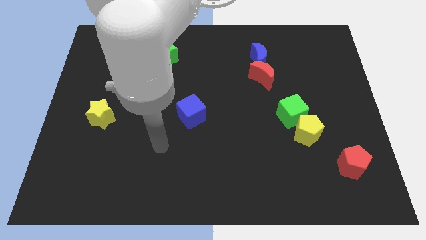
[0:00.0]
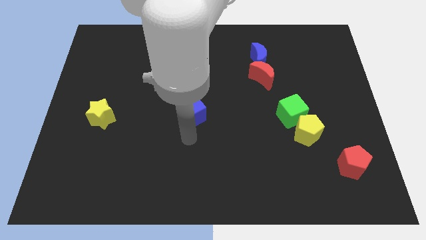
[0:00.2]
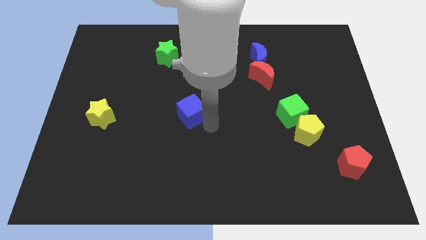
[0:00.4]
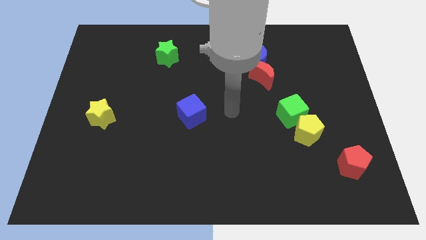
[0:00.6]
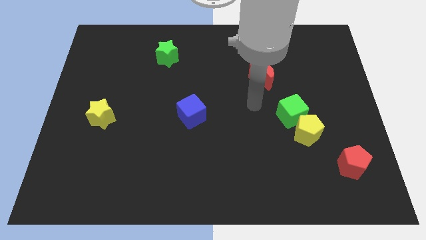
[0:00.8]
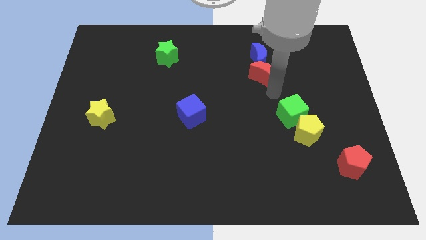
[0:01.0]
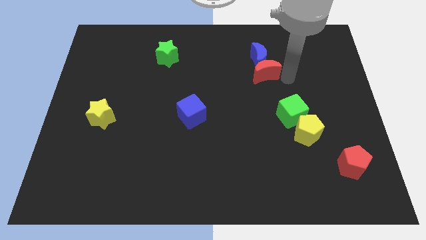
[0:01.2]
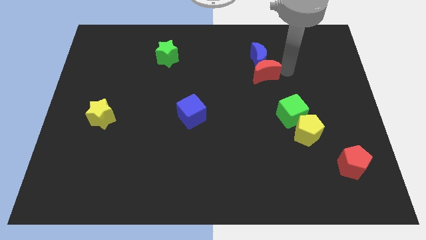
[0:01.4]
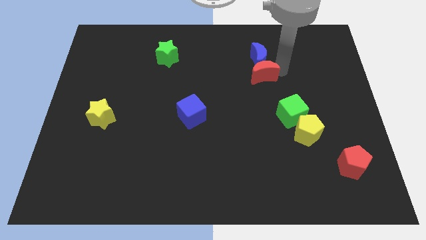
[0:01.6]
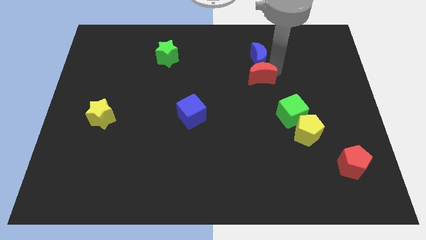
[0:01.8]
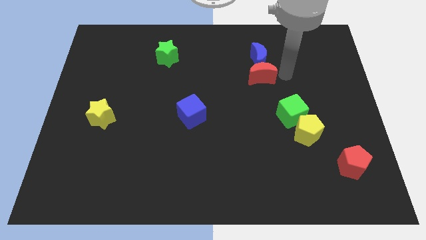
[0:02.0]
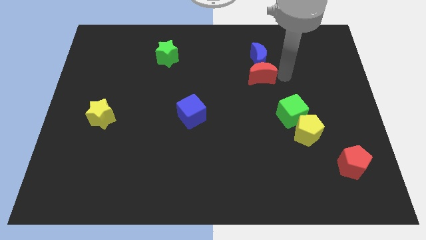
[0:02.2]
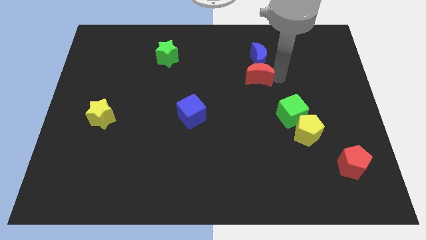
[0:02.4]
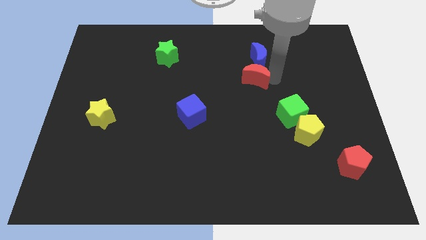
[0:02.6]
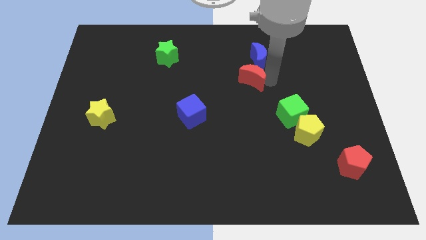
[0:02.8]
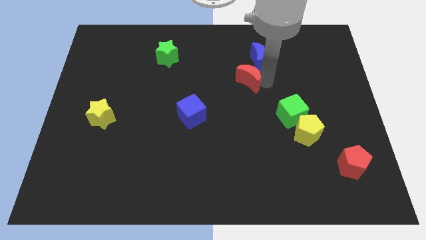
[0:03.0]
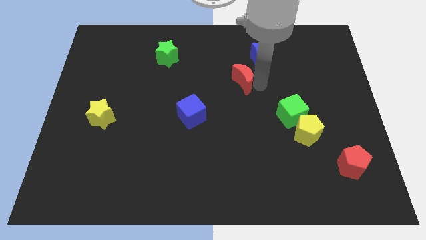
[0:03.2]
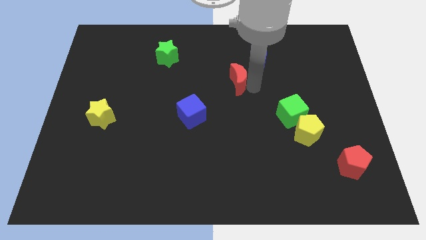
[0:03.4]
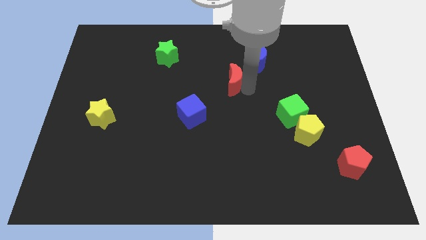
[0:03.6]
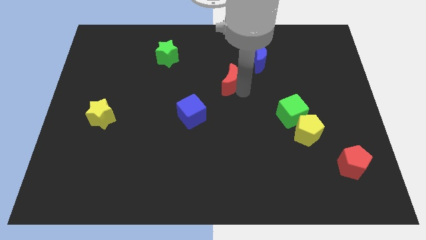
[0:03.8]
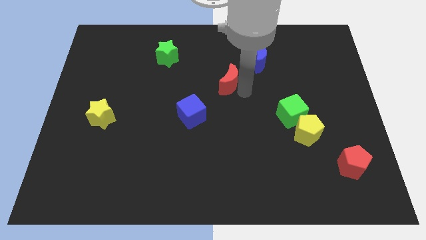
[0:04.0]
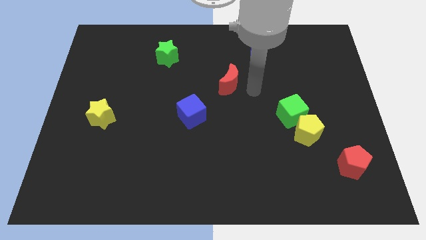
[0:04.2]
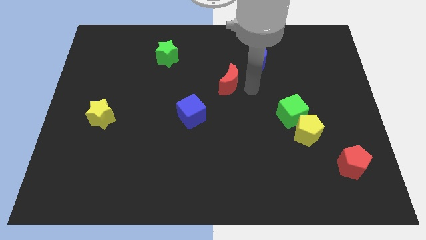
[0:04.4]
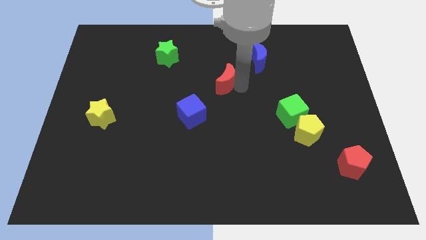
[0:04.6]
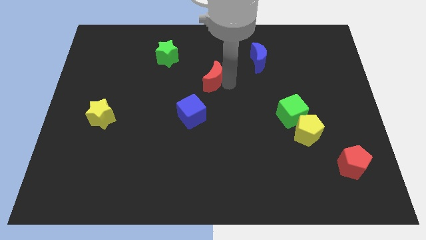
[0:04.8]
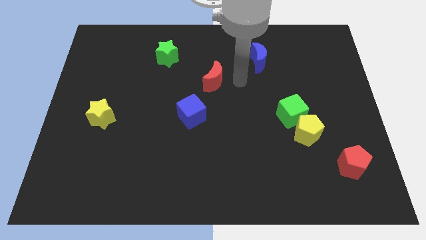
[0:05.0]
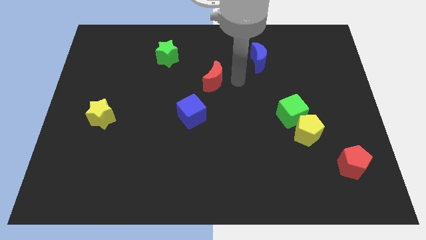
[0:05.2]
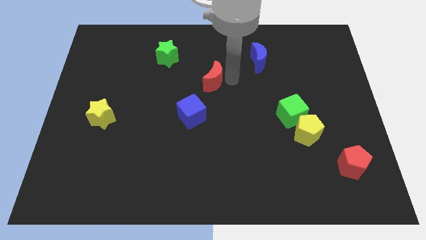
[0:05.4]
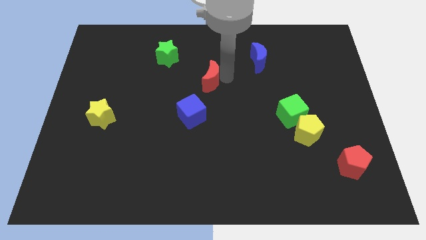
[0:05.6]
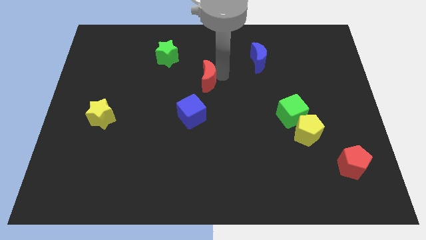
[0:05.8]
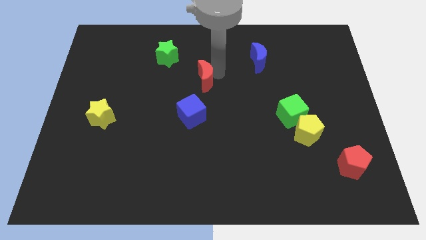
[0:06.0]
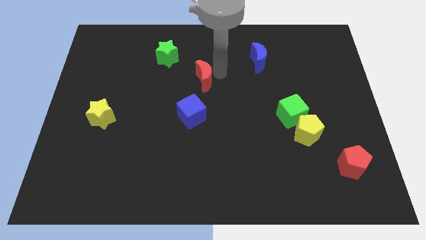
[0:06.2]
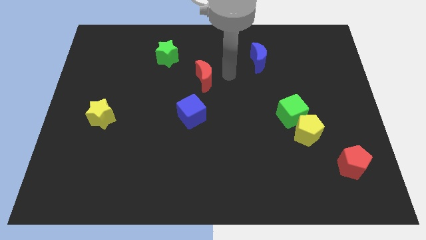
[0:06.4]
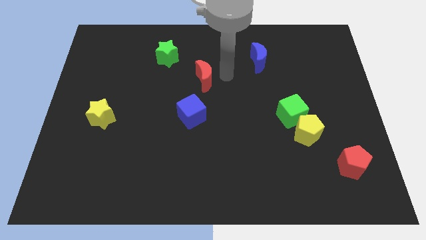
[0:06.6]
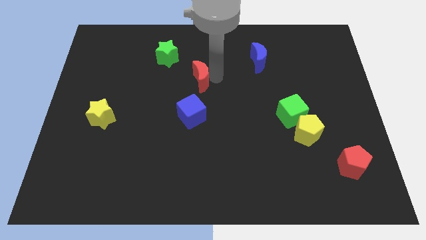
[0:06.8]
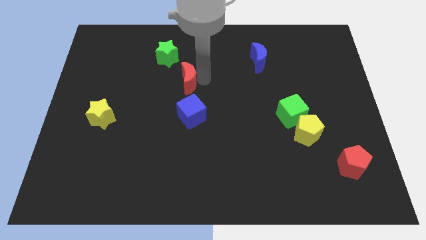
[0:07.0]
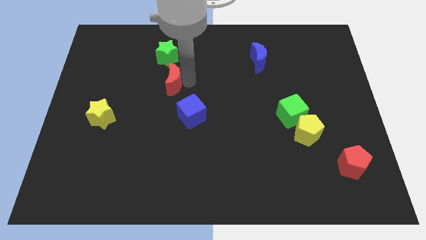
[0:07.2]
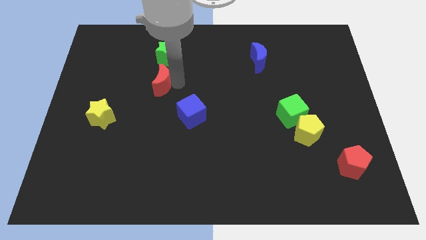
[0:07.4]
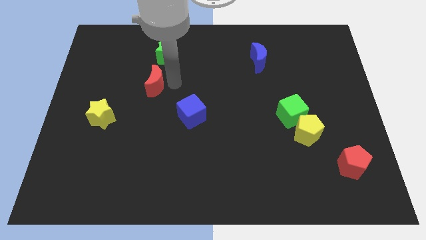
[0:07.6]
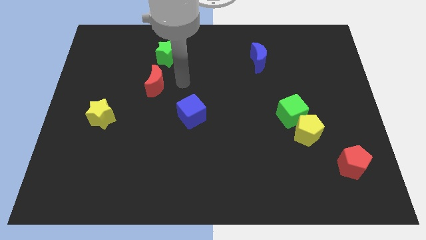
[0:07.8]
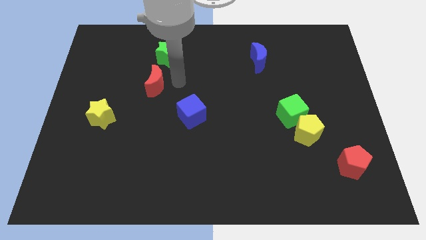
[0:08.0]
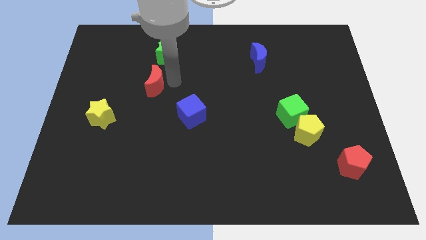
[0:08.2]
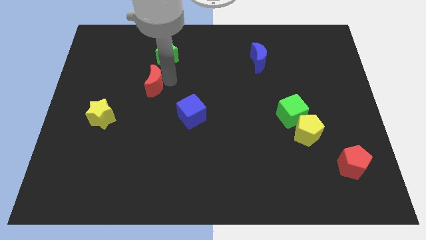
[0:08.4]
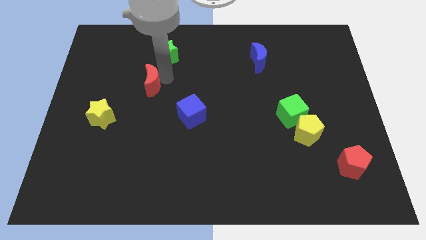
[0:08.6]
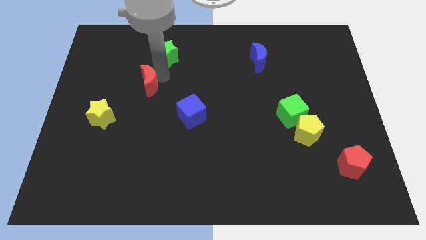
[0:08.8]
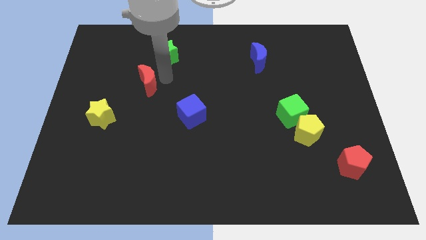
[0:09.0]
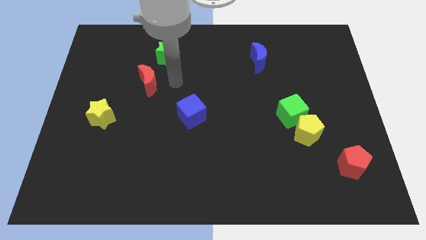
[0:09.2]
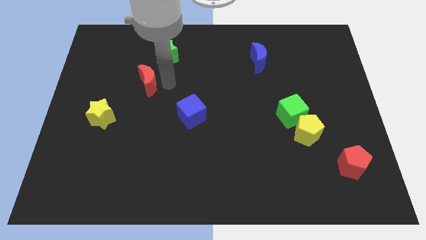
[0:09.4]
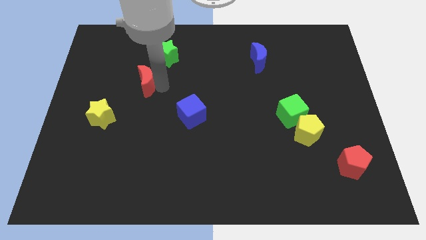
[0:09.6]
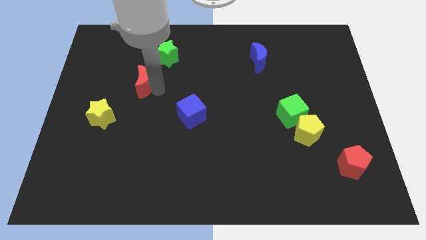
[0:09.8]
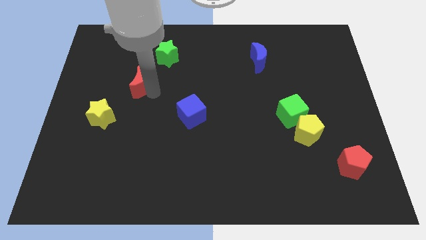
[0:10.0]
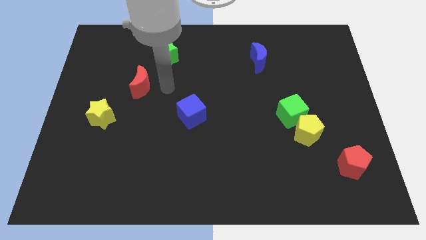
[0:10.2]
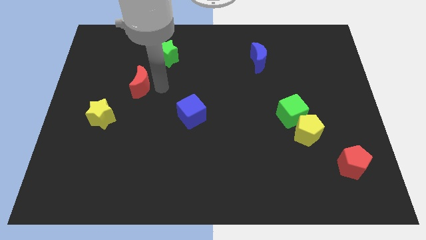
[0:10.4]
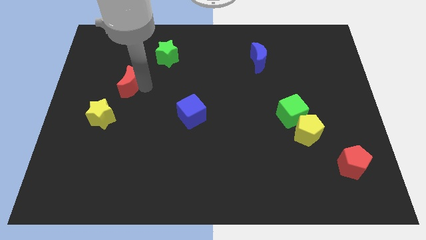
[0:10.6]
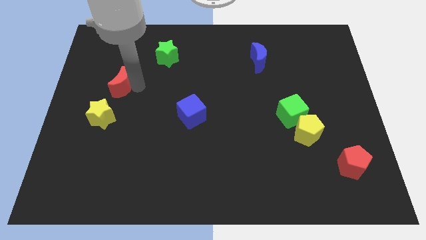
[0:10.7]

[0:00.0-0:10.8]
move the red moon to the top side of the yellow star

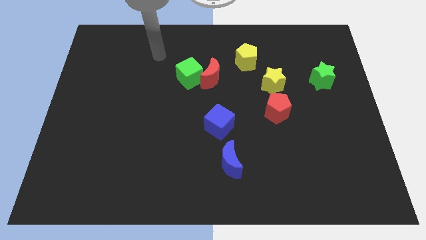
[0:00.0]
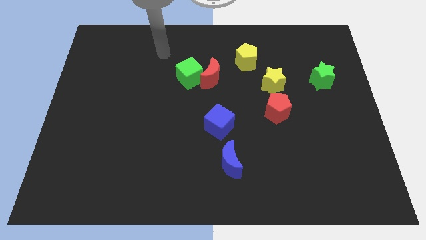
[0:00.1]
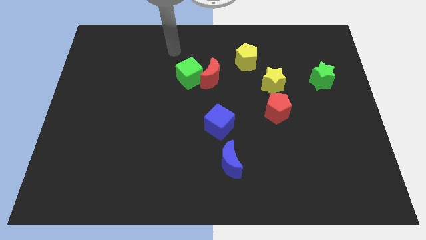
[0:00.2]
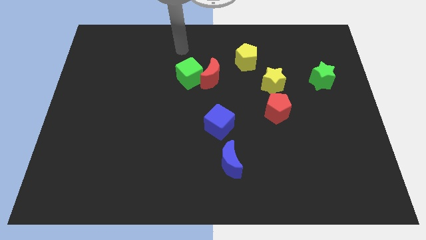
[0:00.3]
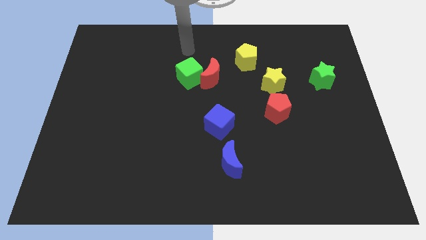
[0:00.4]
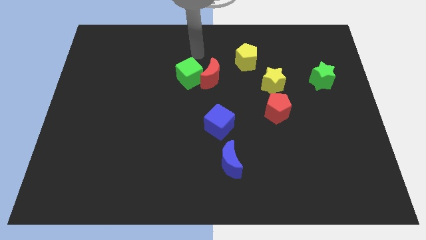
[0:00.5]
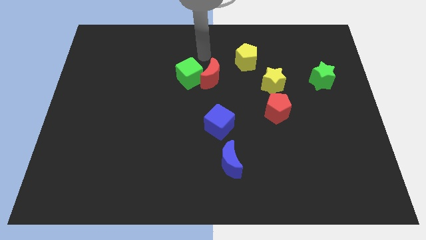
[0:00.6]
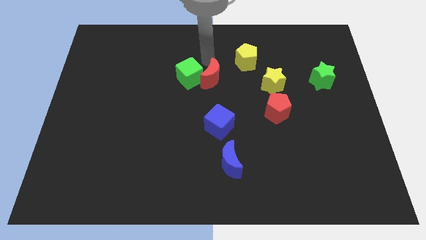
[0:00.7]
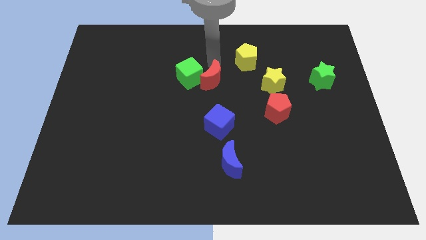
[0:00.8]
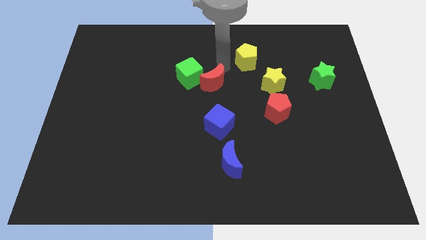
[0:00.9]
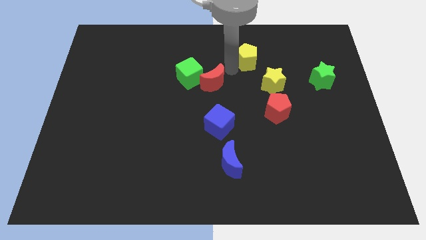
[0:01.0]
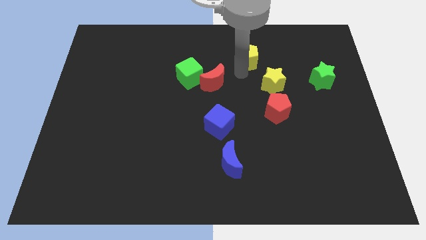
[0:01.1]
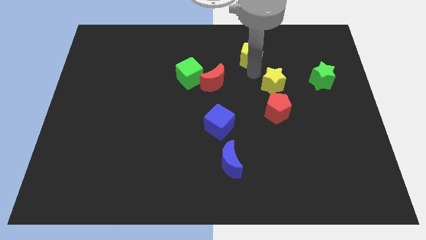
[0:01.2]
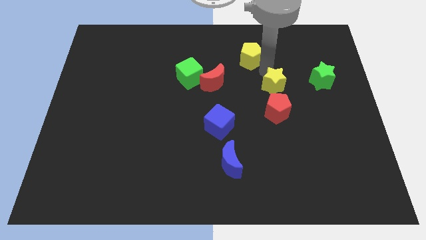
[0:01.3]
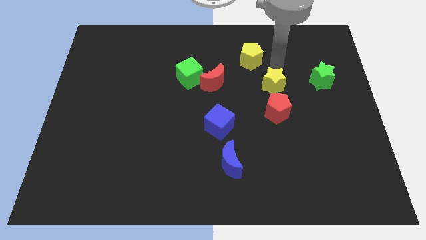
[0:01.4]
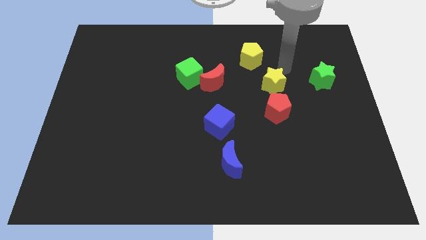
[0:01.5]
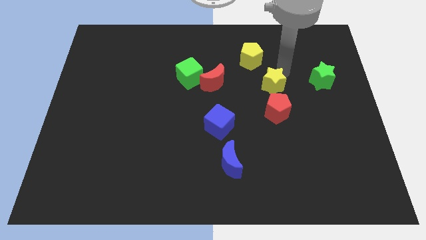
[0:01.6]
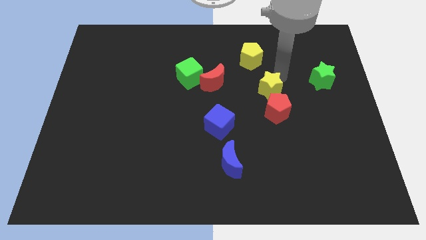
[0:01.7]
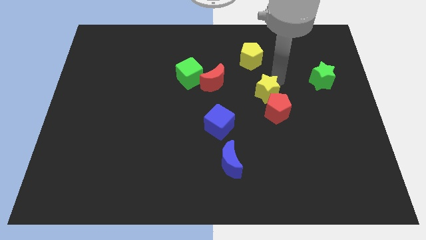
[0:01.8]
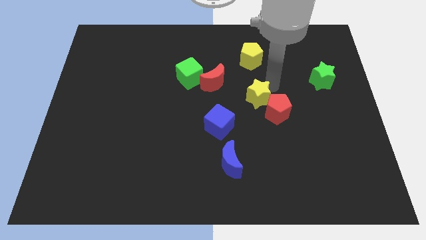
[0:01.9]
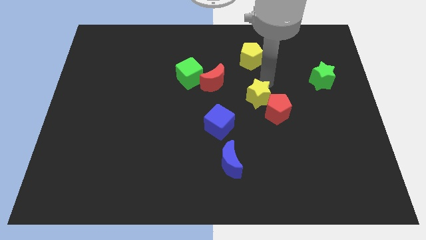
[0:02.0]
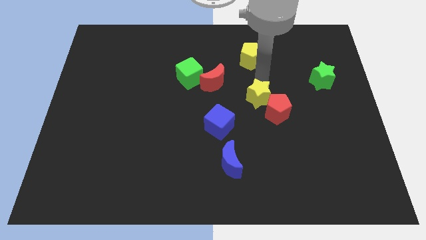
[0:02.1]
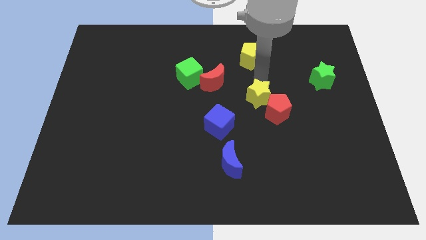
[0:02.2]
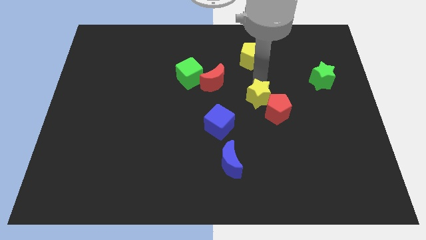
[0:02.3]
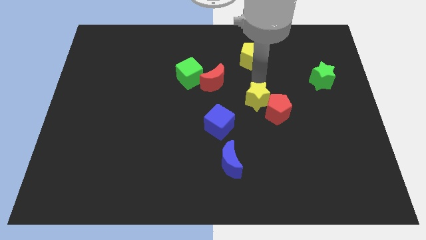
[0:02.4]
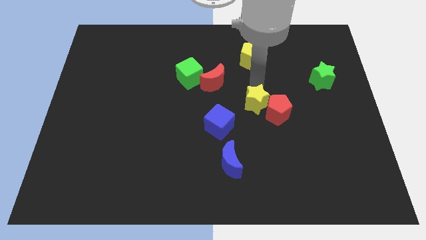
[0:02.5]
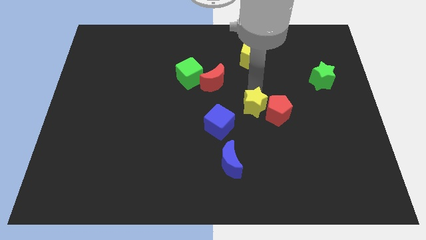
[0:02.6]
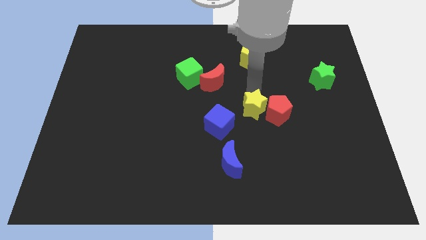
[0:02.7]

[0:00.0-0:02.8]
move the yellow star to the bottom left side of the red pentagon
